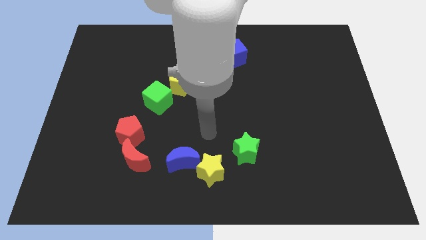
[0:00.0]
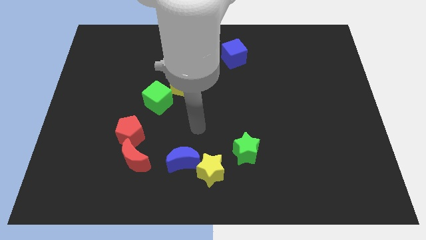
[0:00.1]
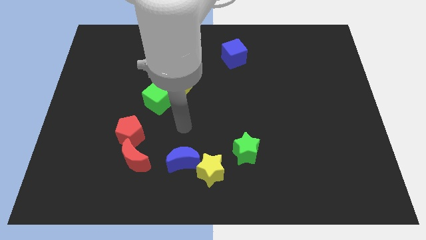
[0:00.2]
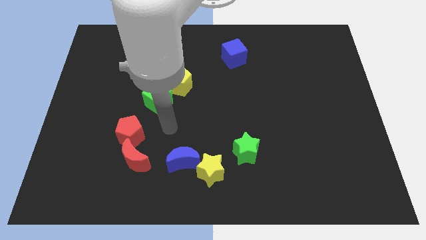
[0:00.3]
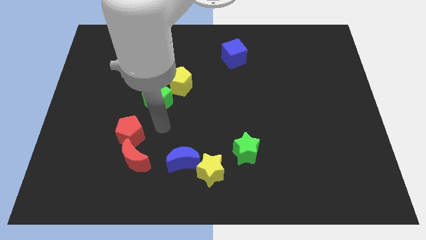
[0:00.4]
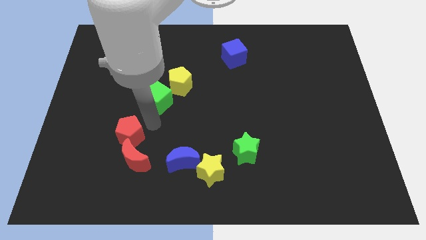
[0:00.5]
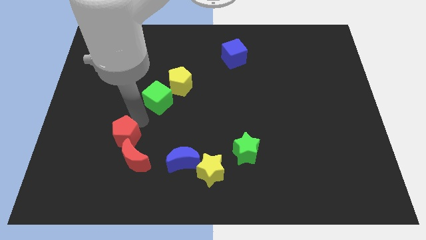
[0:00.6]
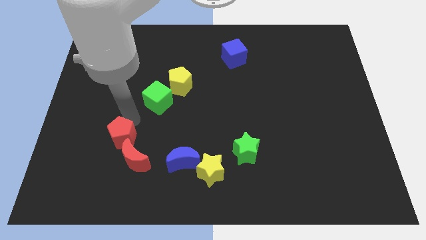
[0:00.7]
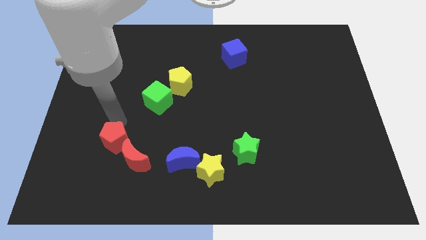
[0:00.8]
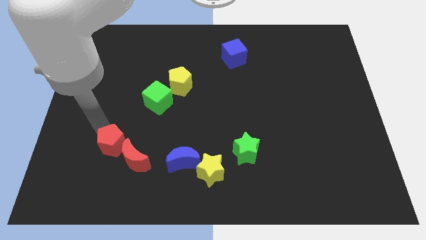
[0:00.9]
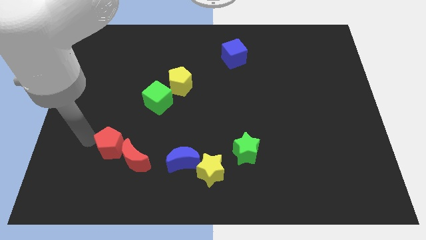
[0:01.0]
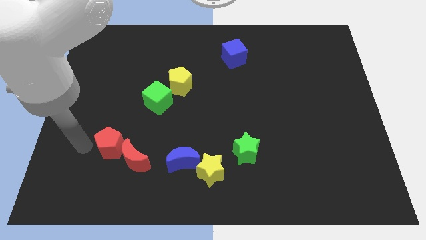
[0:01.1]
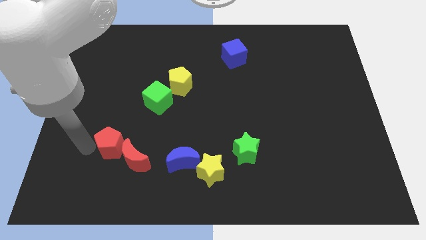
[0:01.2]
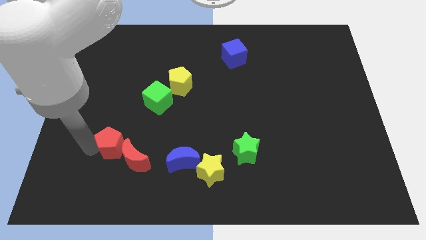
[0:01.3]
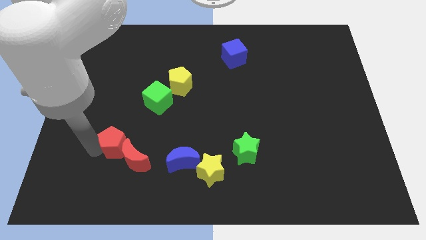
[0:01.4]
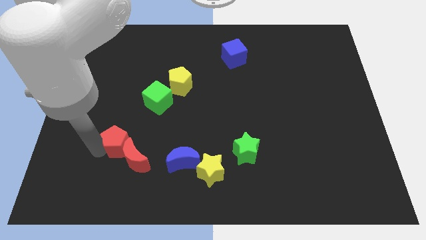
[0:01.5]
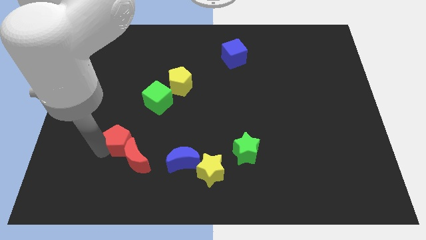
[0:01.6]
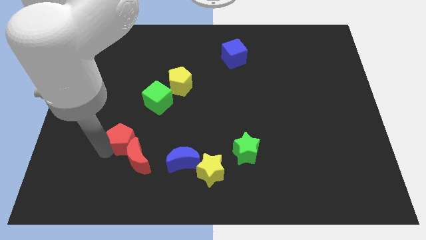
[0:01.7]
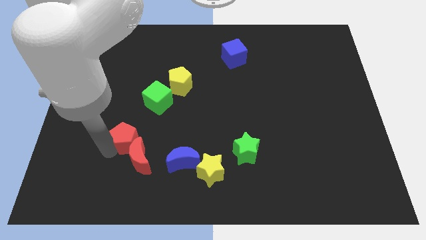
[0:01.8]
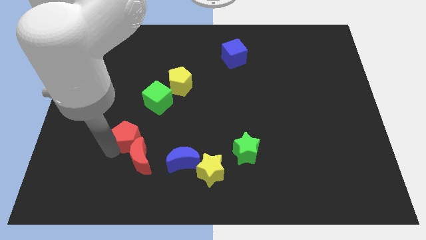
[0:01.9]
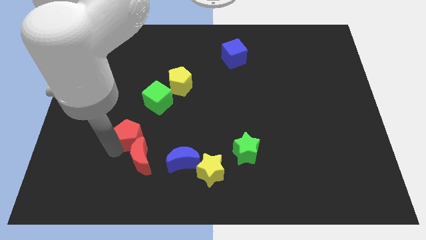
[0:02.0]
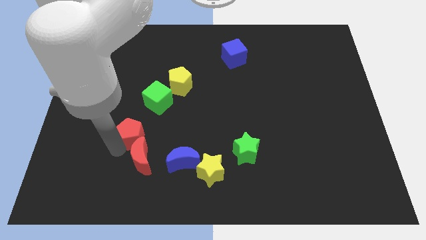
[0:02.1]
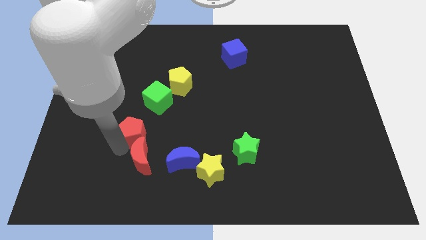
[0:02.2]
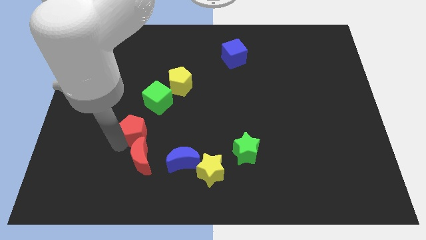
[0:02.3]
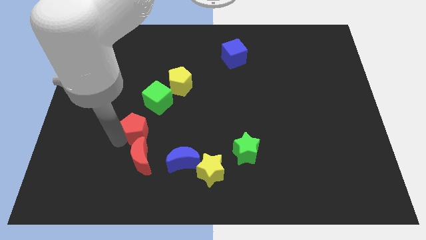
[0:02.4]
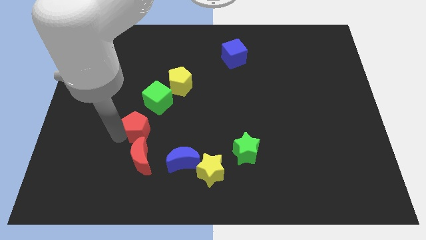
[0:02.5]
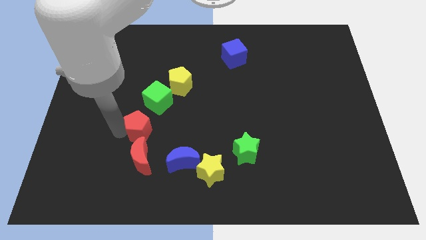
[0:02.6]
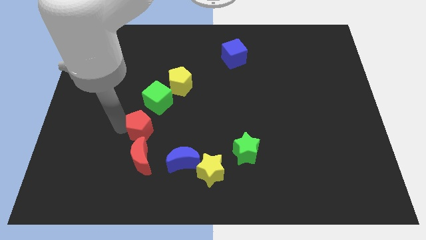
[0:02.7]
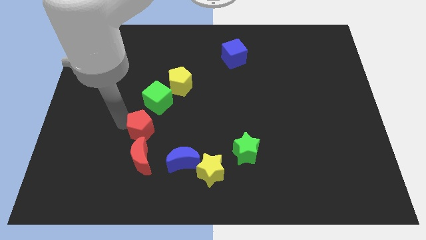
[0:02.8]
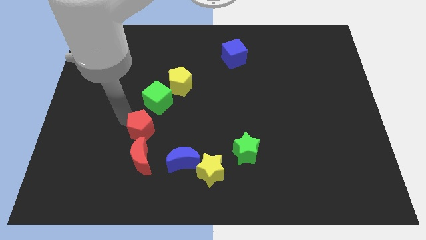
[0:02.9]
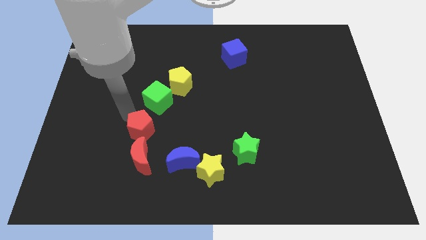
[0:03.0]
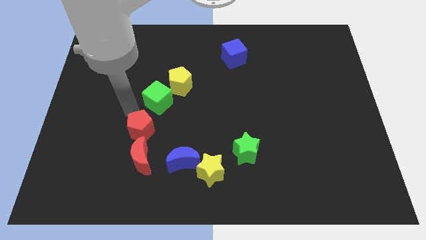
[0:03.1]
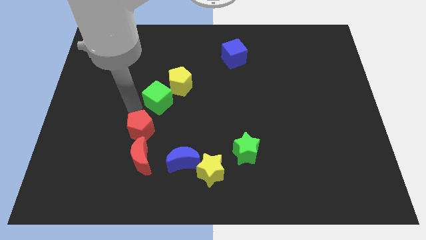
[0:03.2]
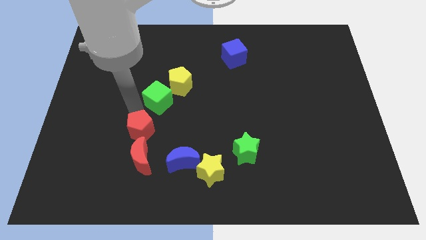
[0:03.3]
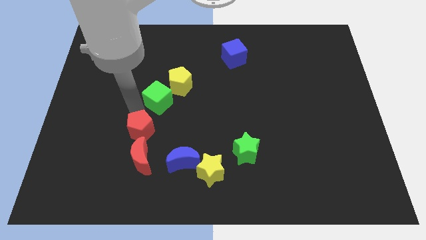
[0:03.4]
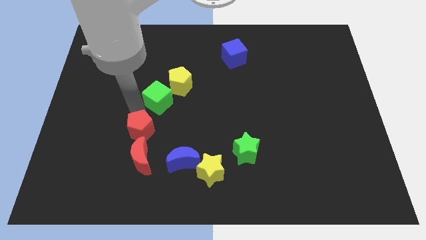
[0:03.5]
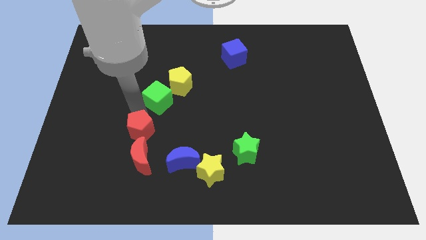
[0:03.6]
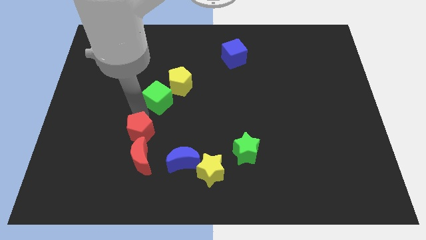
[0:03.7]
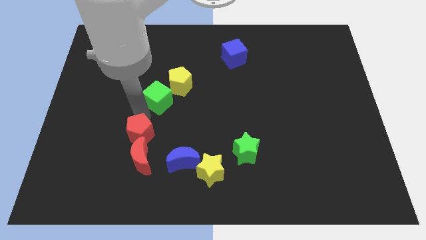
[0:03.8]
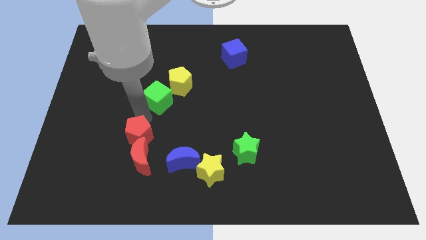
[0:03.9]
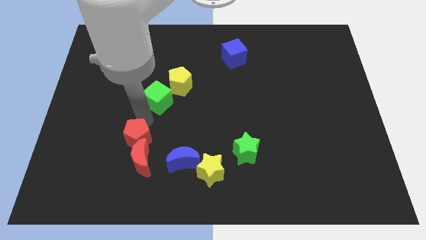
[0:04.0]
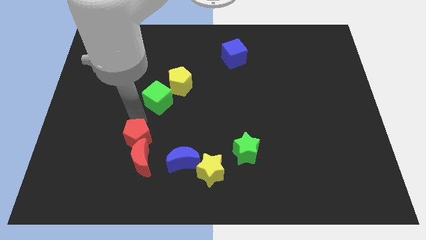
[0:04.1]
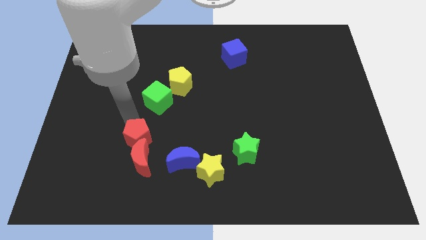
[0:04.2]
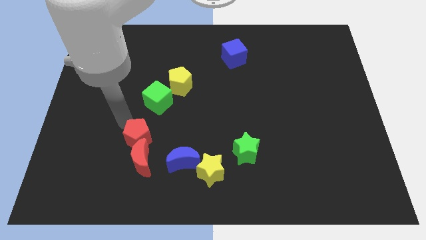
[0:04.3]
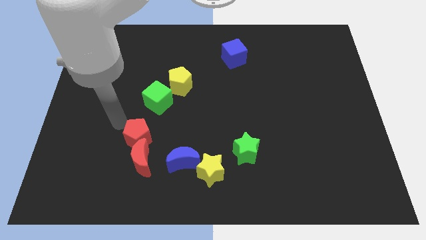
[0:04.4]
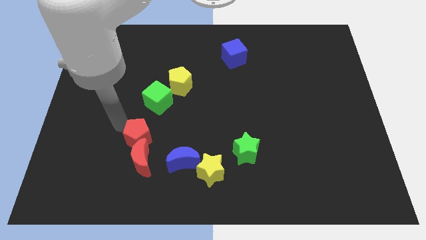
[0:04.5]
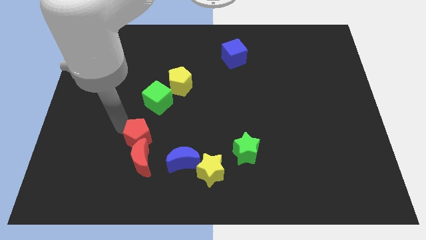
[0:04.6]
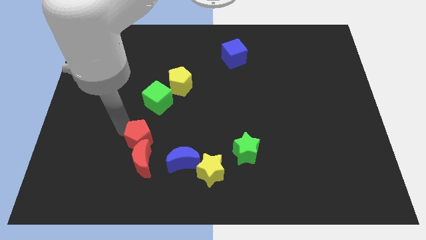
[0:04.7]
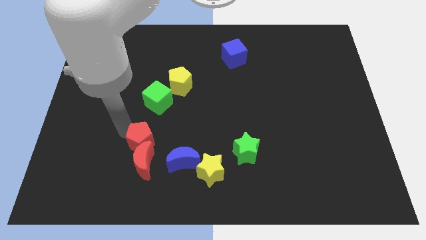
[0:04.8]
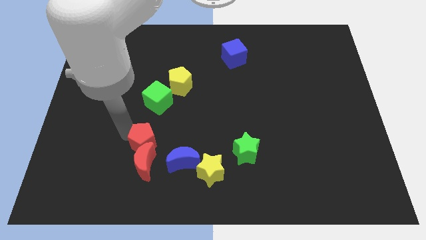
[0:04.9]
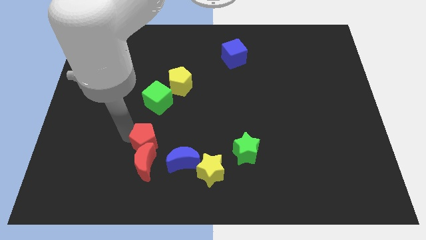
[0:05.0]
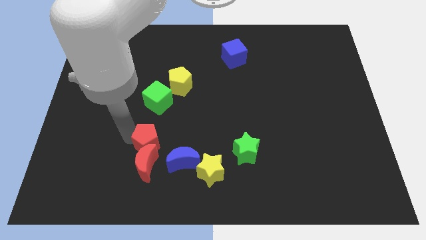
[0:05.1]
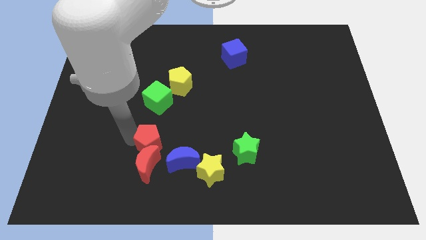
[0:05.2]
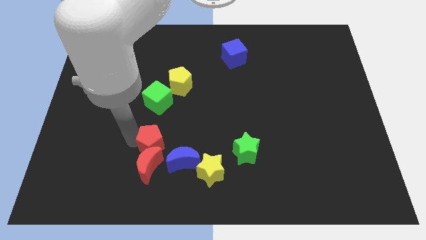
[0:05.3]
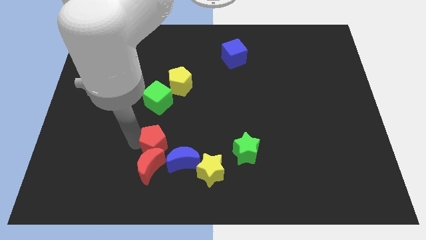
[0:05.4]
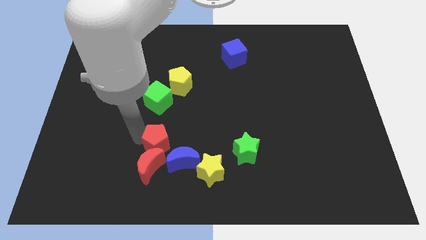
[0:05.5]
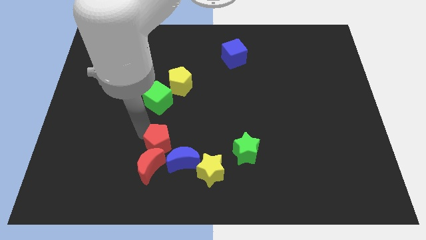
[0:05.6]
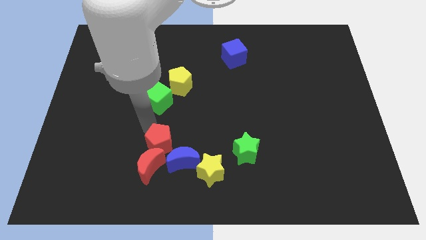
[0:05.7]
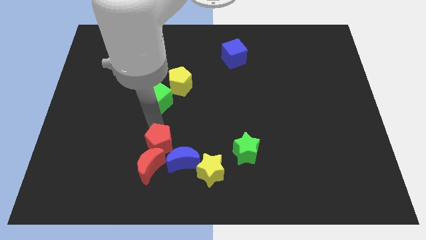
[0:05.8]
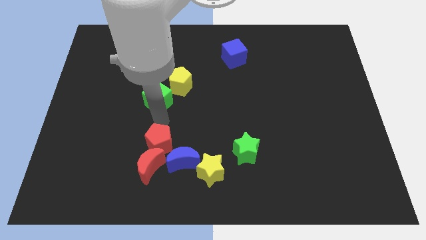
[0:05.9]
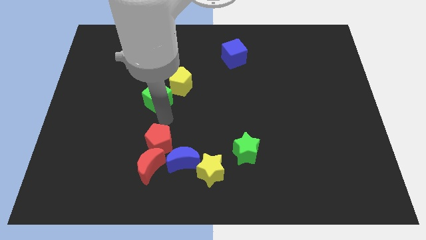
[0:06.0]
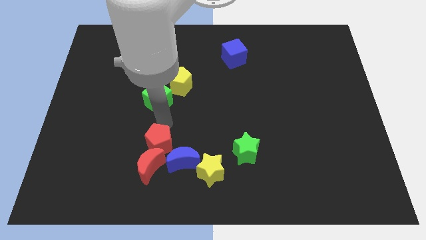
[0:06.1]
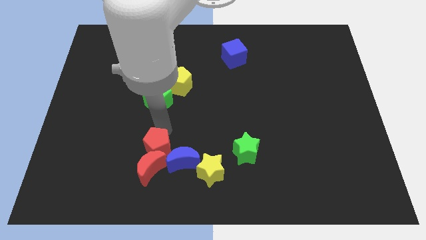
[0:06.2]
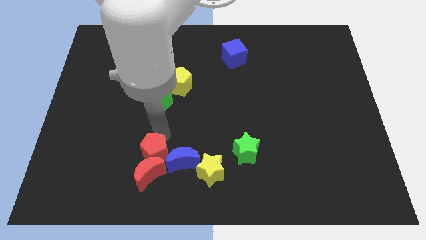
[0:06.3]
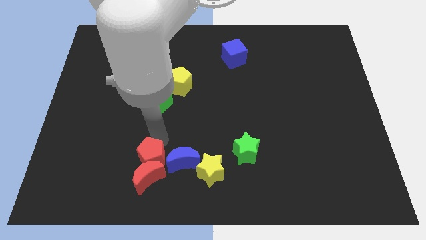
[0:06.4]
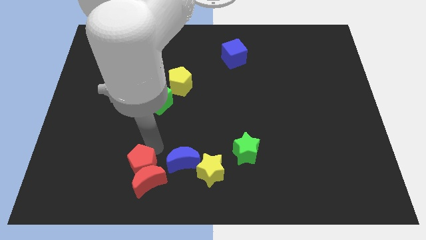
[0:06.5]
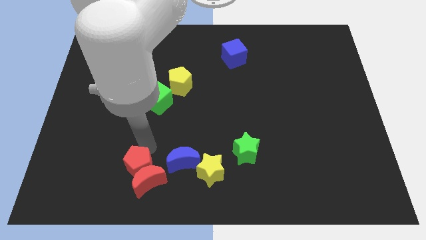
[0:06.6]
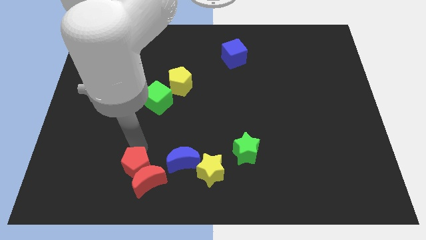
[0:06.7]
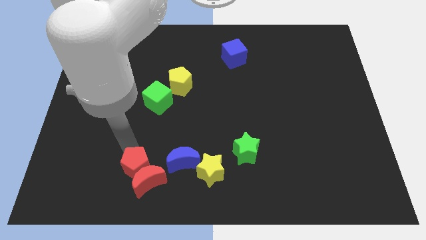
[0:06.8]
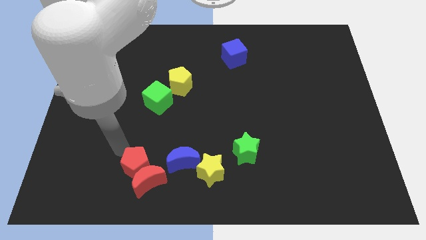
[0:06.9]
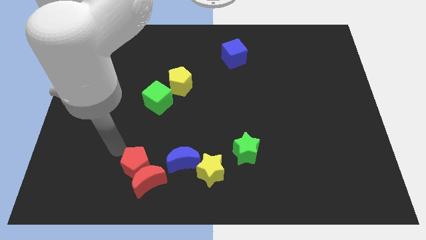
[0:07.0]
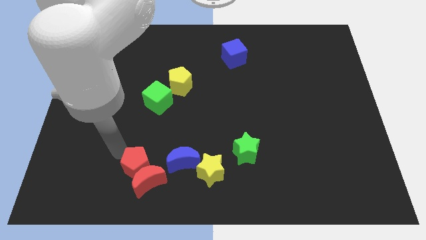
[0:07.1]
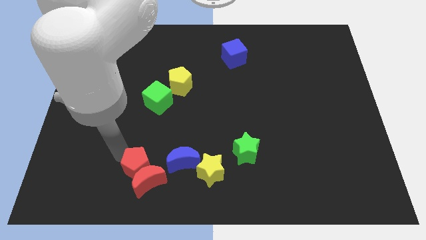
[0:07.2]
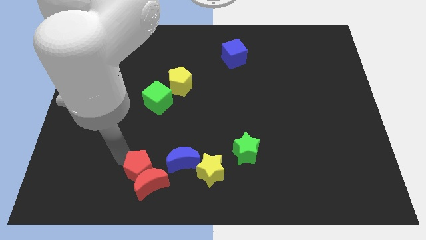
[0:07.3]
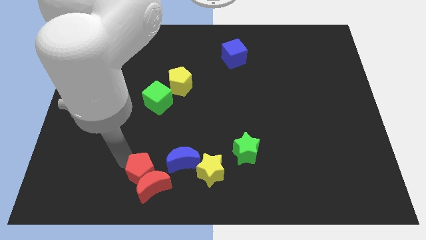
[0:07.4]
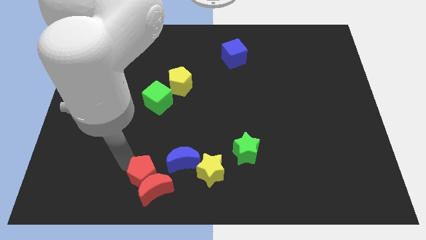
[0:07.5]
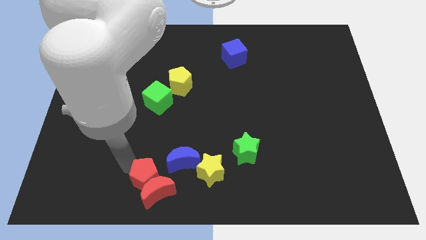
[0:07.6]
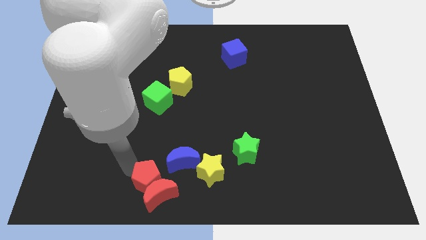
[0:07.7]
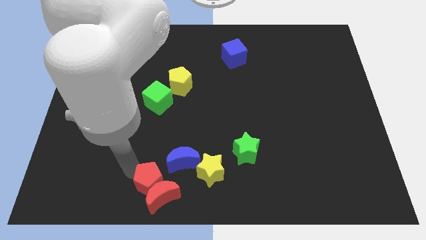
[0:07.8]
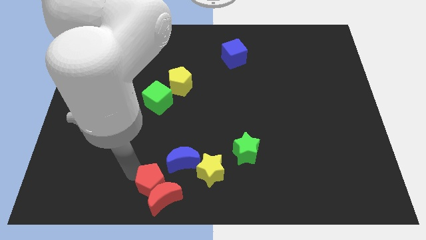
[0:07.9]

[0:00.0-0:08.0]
slide the red pentagon to the bottom
